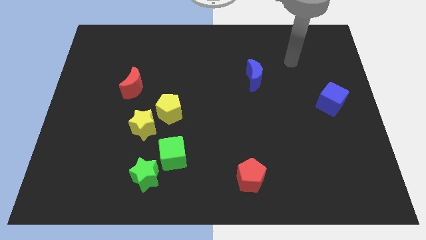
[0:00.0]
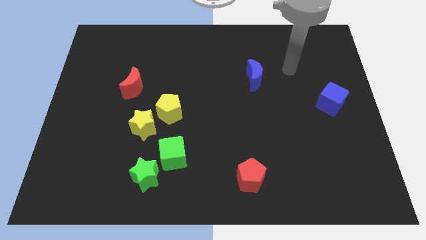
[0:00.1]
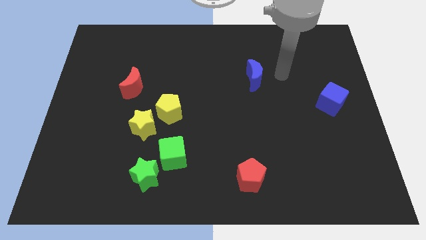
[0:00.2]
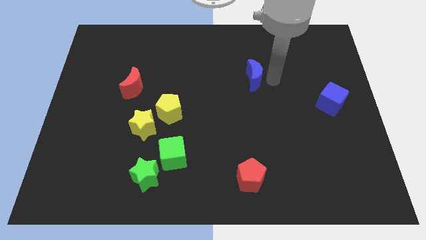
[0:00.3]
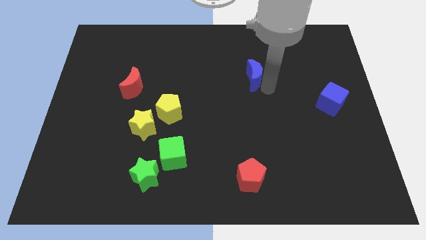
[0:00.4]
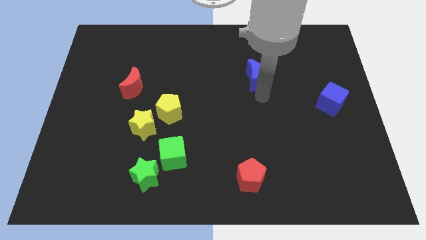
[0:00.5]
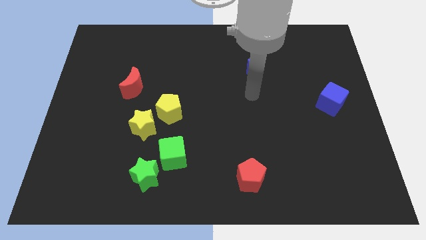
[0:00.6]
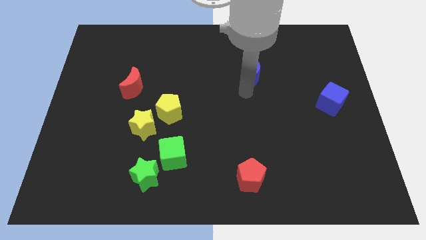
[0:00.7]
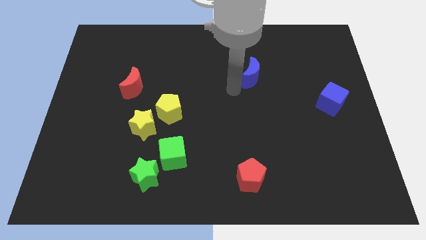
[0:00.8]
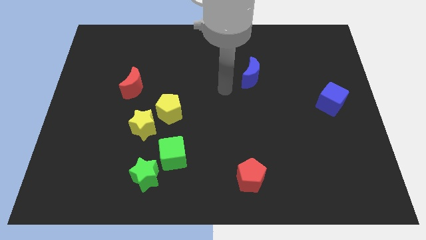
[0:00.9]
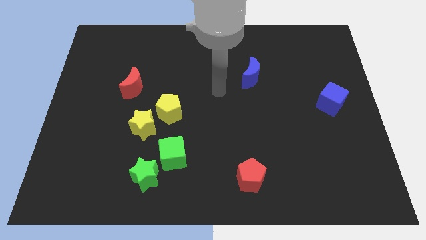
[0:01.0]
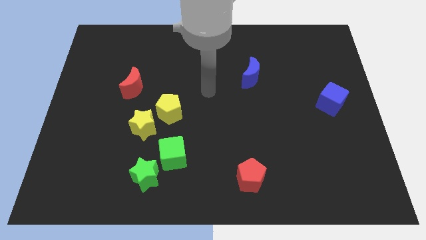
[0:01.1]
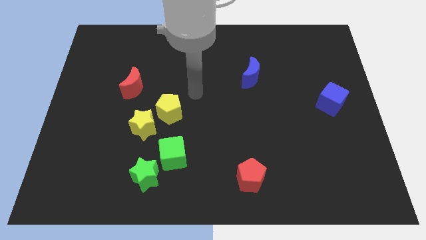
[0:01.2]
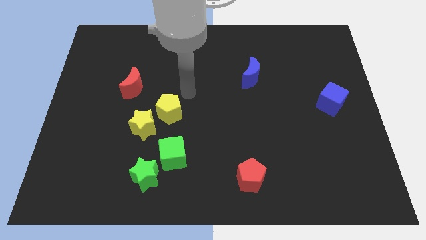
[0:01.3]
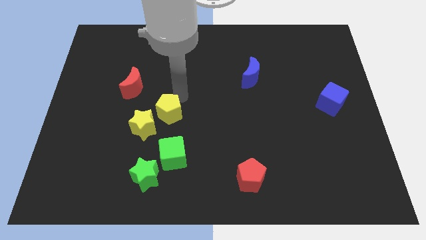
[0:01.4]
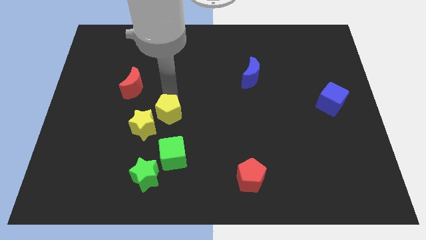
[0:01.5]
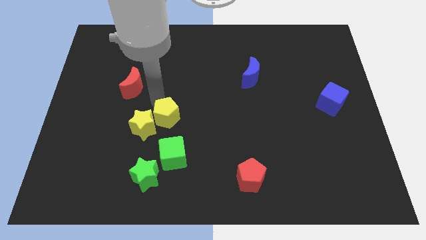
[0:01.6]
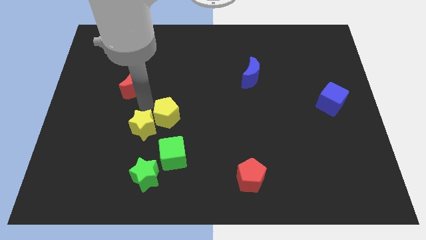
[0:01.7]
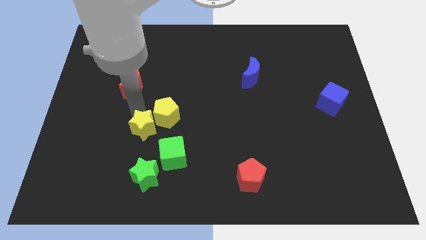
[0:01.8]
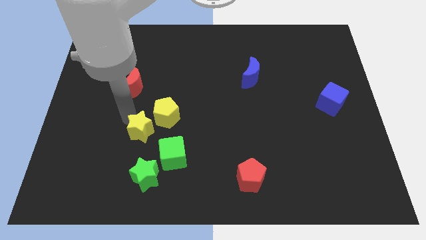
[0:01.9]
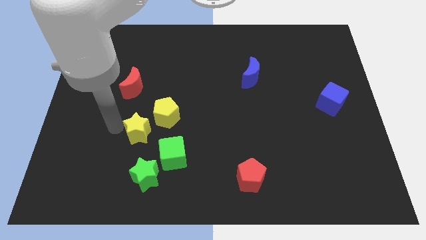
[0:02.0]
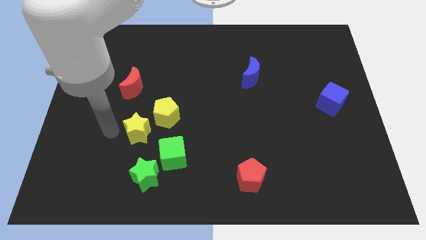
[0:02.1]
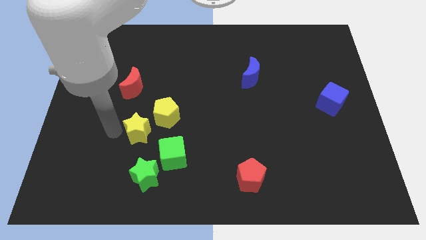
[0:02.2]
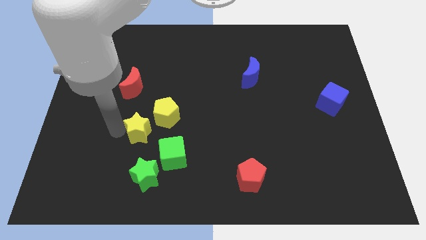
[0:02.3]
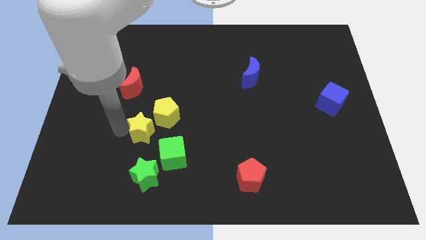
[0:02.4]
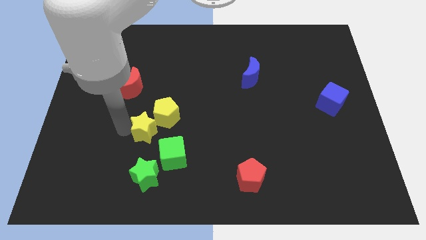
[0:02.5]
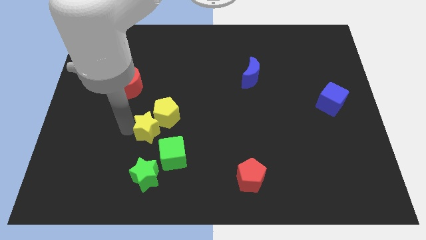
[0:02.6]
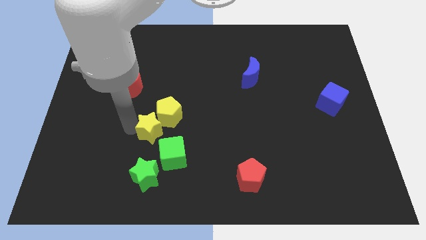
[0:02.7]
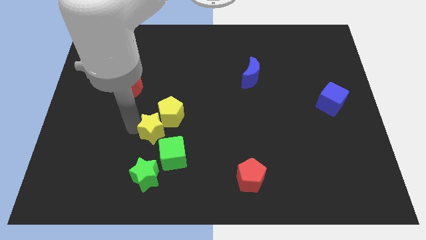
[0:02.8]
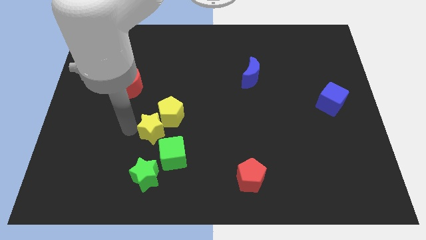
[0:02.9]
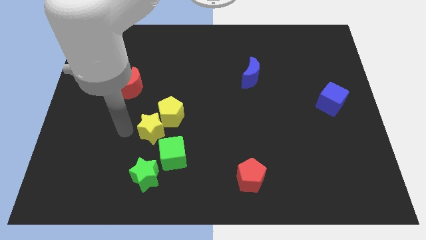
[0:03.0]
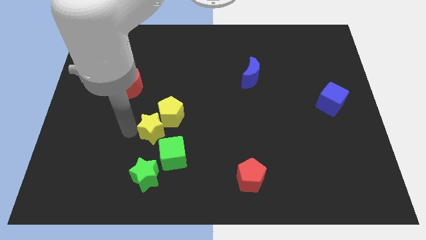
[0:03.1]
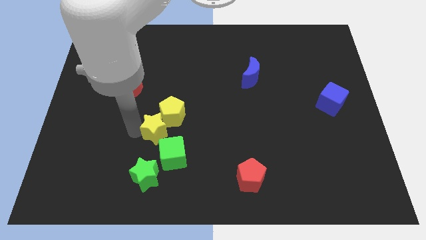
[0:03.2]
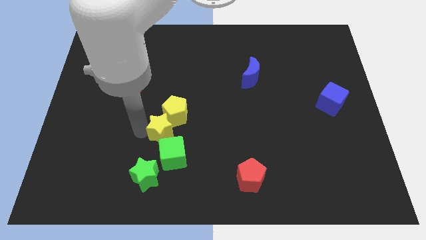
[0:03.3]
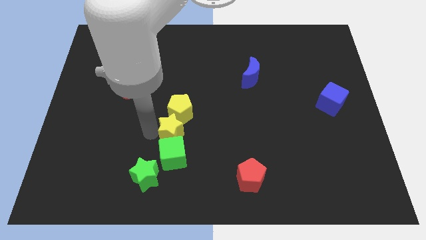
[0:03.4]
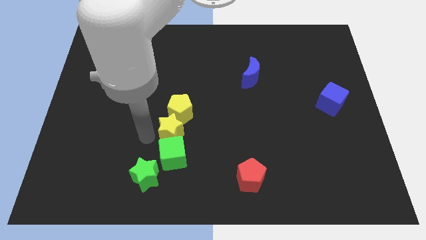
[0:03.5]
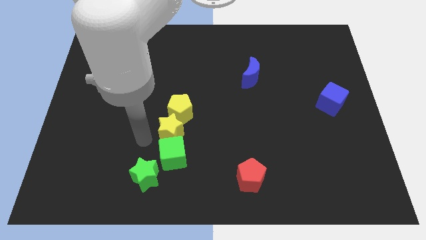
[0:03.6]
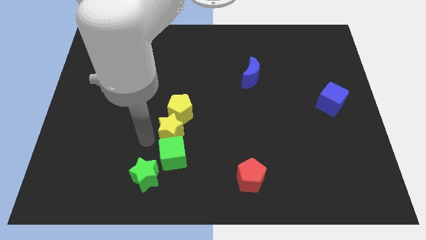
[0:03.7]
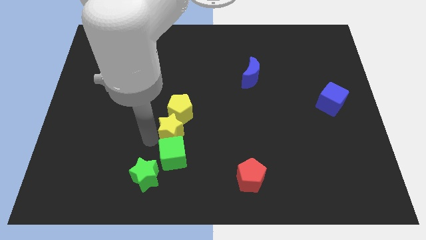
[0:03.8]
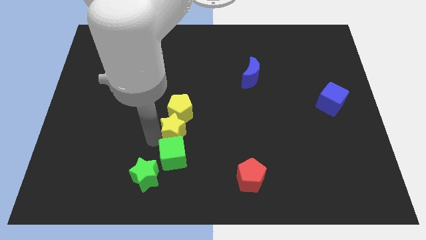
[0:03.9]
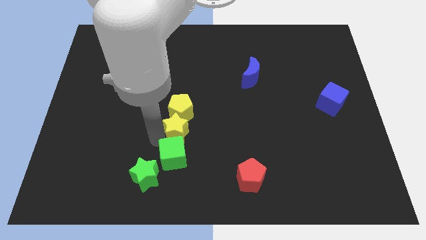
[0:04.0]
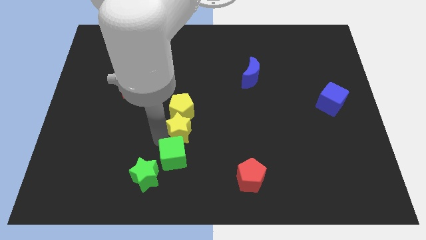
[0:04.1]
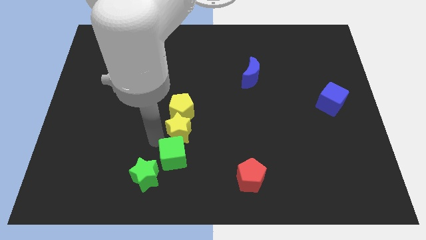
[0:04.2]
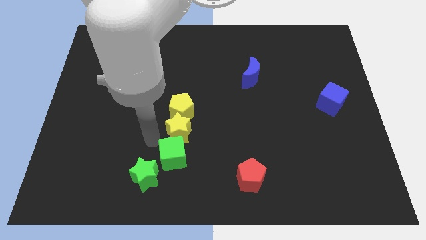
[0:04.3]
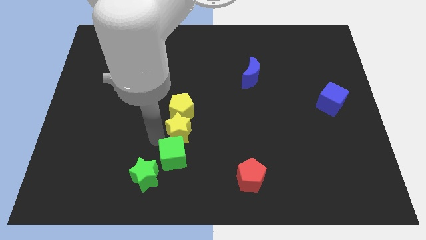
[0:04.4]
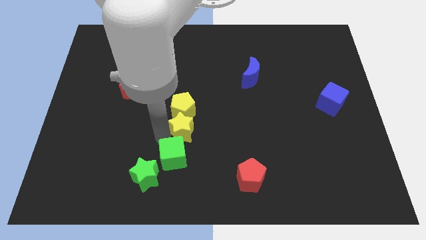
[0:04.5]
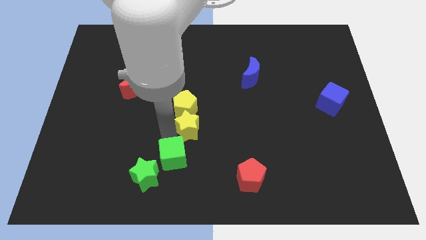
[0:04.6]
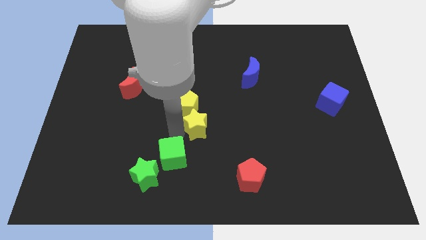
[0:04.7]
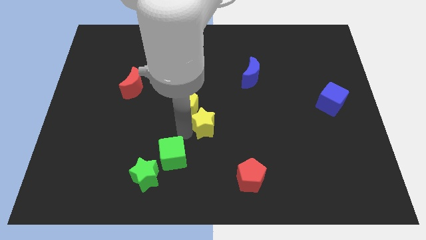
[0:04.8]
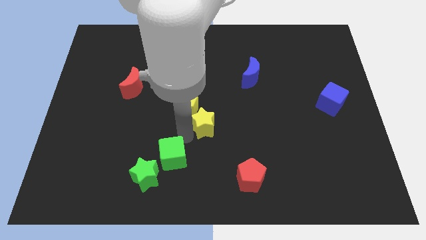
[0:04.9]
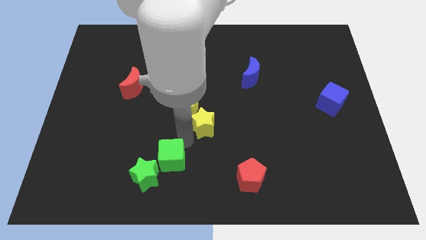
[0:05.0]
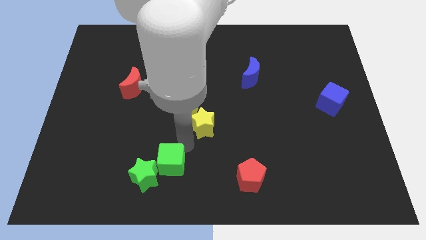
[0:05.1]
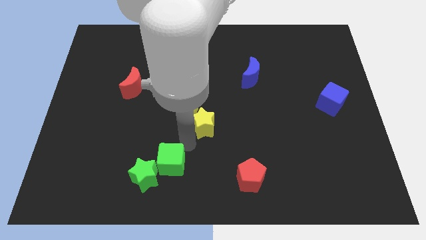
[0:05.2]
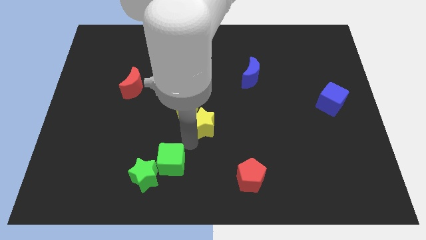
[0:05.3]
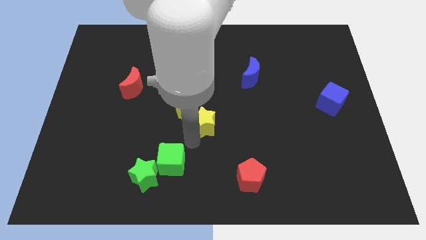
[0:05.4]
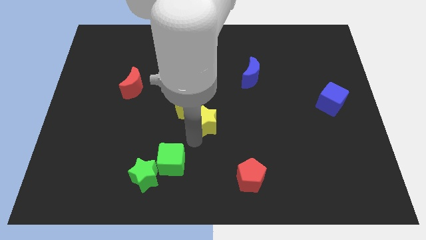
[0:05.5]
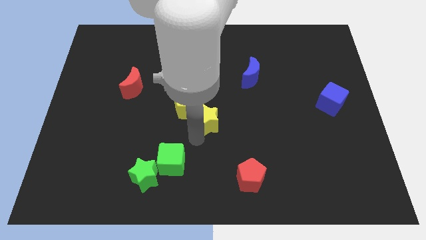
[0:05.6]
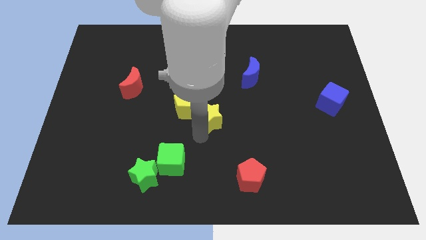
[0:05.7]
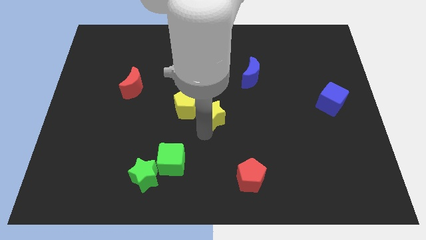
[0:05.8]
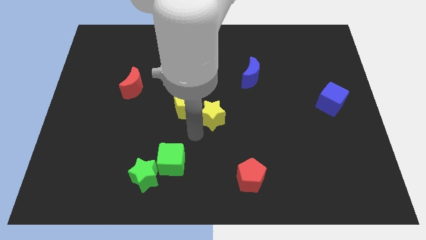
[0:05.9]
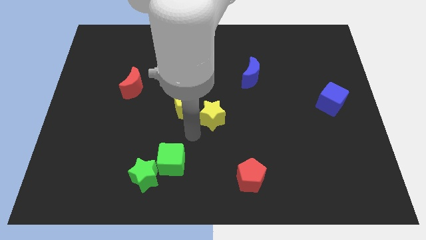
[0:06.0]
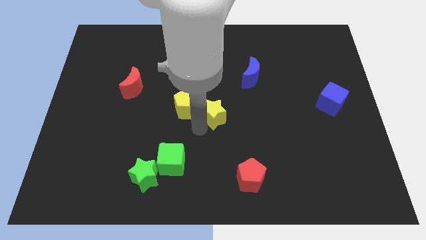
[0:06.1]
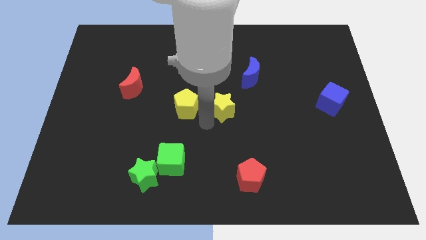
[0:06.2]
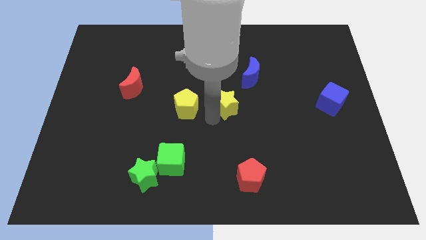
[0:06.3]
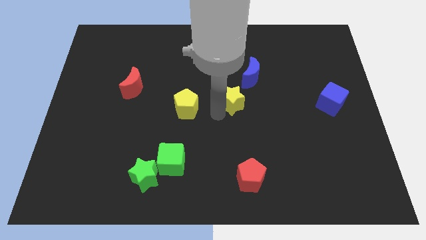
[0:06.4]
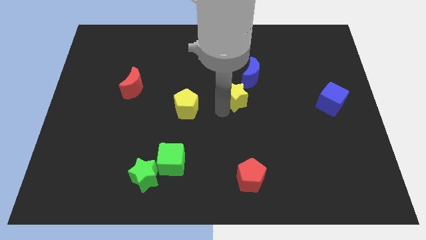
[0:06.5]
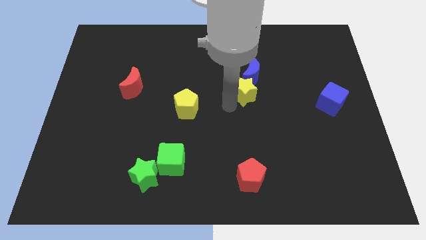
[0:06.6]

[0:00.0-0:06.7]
put the yellow star towards the blue moon
